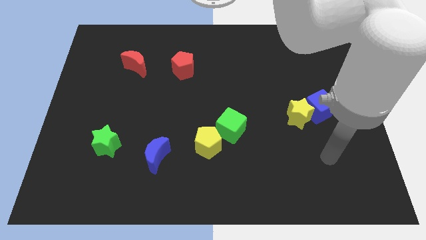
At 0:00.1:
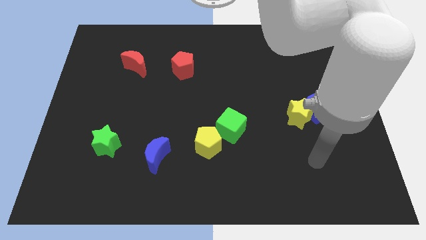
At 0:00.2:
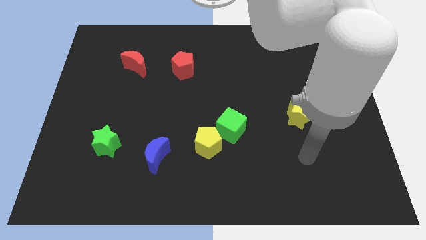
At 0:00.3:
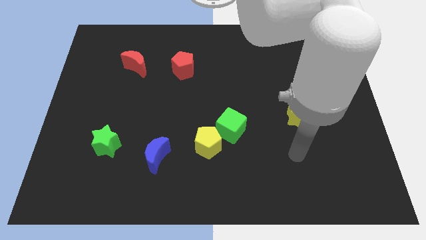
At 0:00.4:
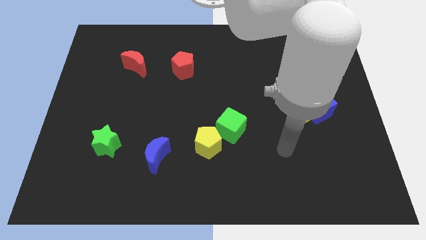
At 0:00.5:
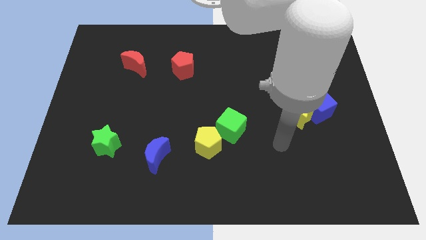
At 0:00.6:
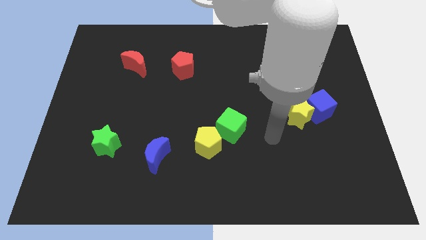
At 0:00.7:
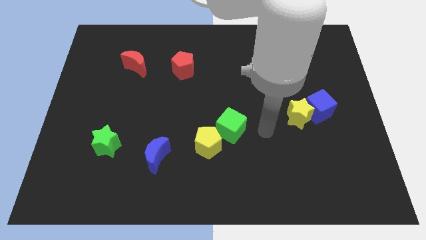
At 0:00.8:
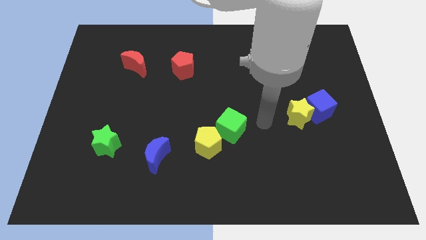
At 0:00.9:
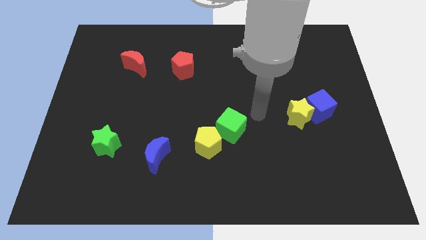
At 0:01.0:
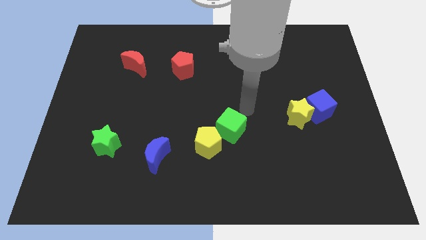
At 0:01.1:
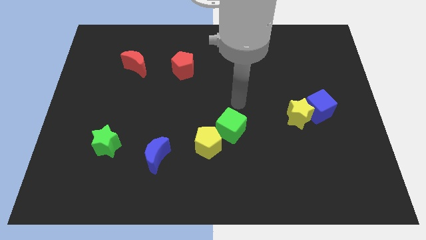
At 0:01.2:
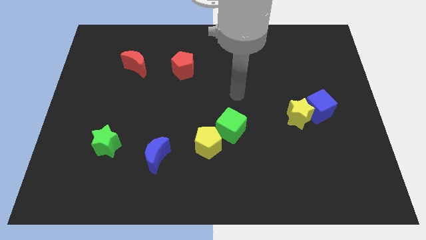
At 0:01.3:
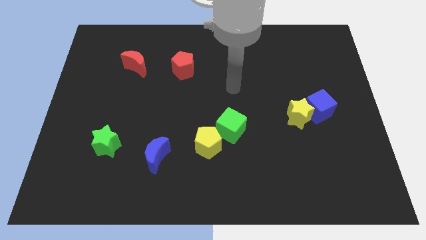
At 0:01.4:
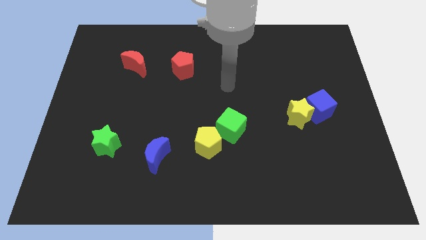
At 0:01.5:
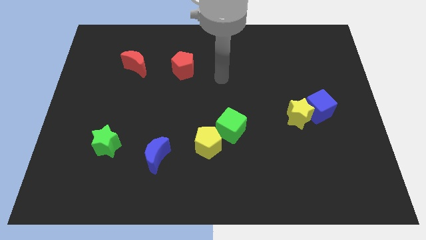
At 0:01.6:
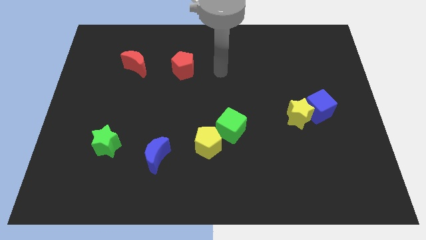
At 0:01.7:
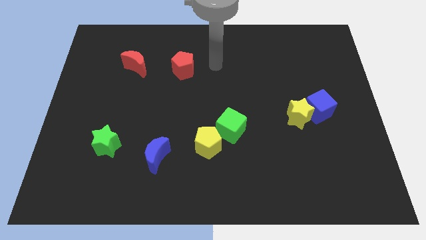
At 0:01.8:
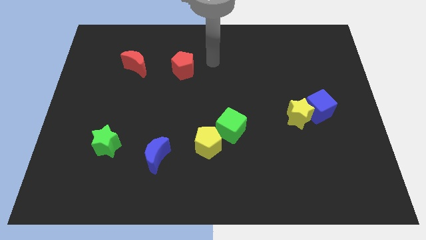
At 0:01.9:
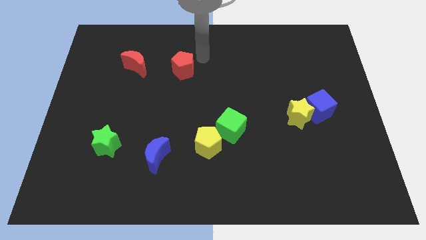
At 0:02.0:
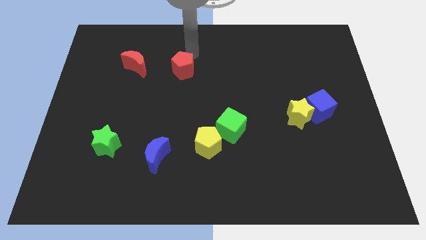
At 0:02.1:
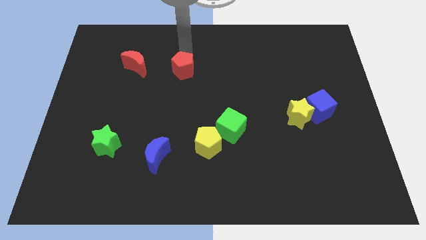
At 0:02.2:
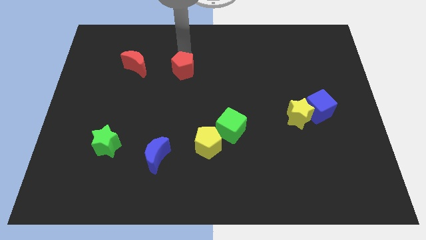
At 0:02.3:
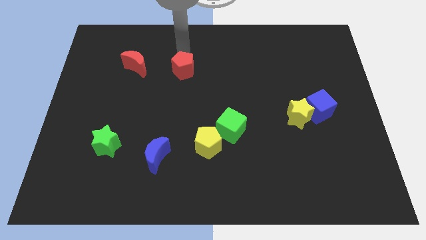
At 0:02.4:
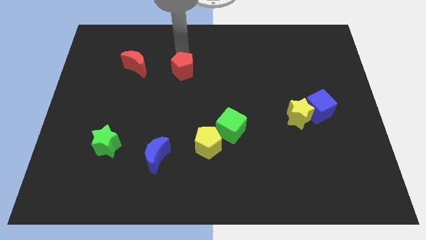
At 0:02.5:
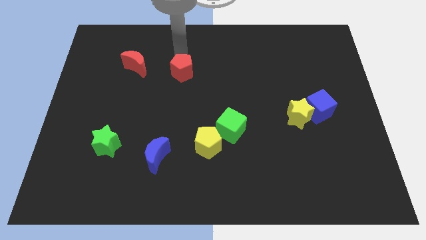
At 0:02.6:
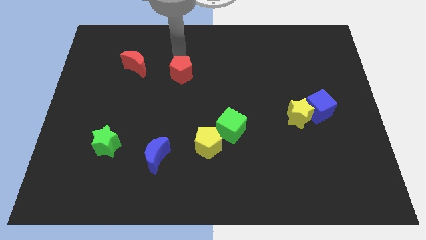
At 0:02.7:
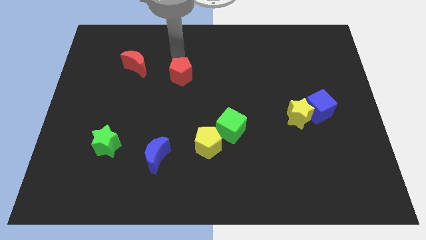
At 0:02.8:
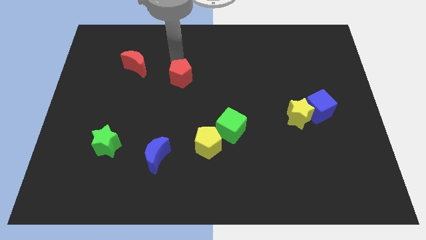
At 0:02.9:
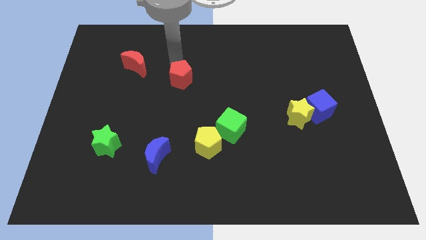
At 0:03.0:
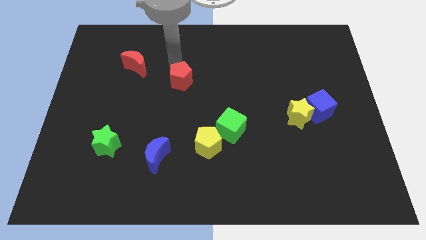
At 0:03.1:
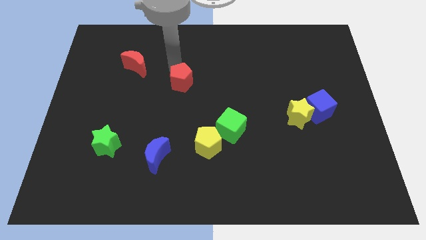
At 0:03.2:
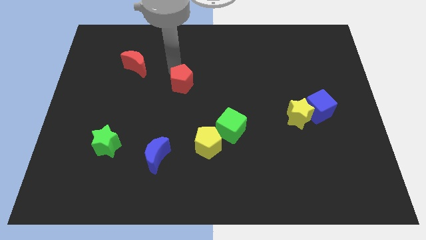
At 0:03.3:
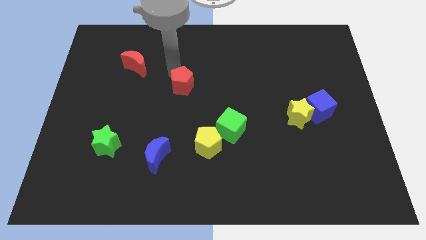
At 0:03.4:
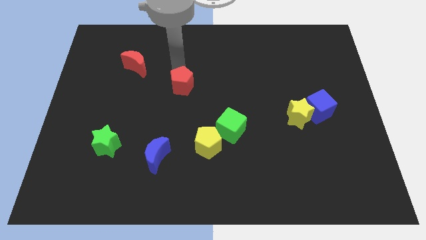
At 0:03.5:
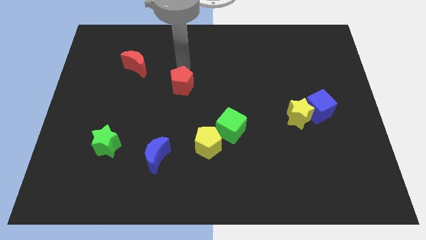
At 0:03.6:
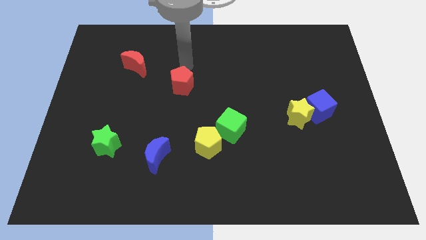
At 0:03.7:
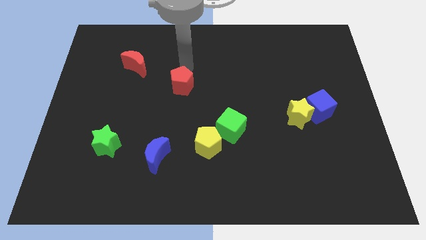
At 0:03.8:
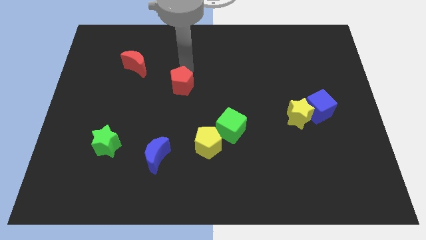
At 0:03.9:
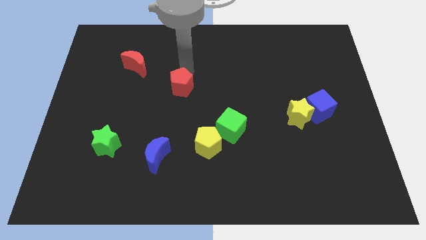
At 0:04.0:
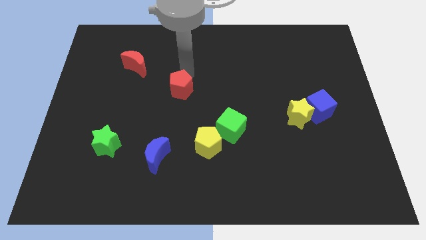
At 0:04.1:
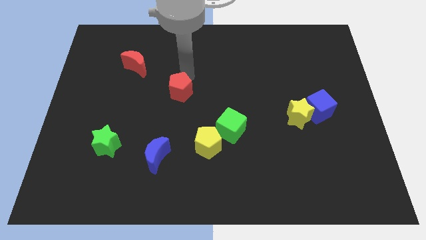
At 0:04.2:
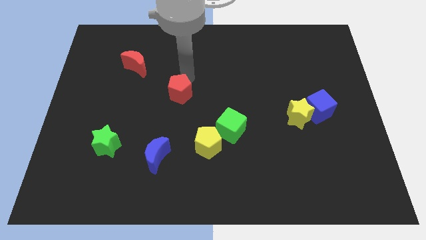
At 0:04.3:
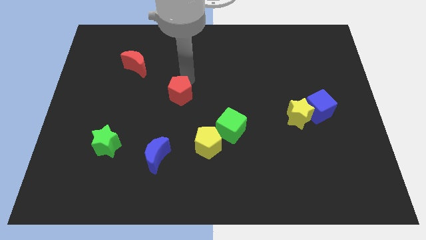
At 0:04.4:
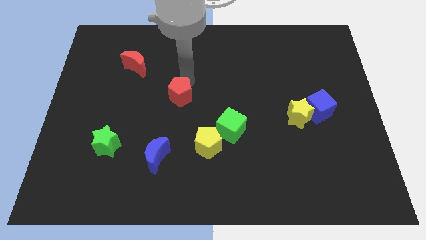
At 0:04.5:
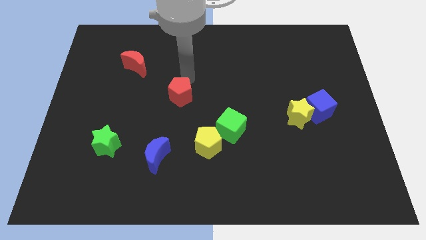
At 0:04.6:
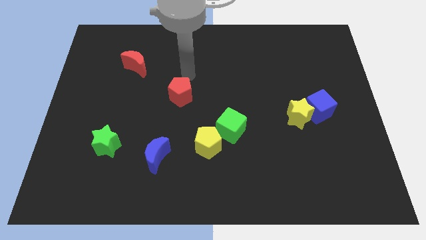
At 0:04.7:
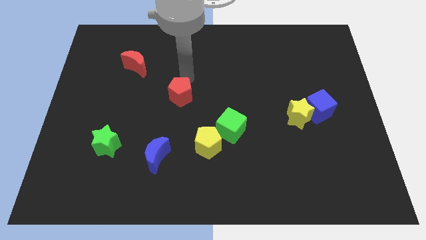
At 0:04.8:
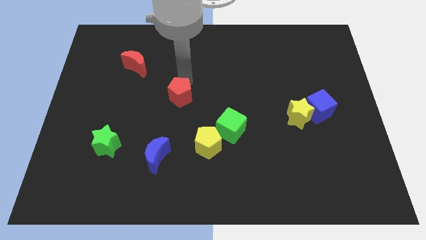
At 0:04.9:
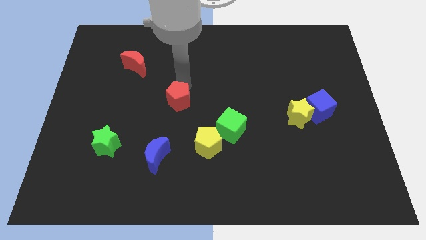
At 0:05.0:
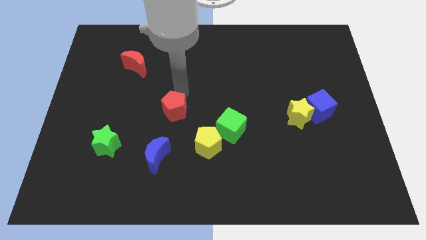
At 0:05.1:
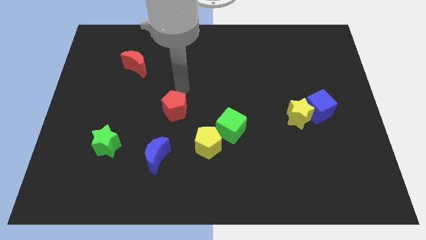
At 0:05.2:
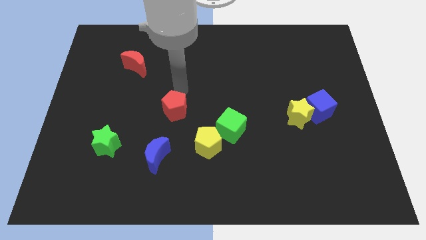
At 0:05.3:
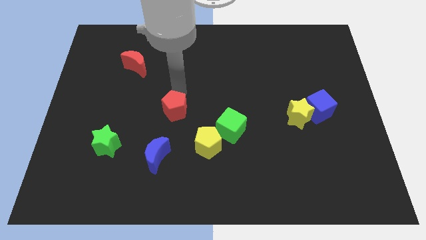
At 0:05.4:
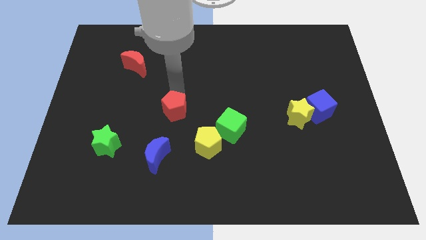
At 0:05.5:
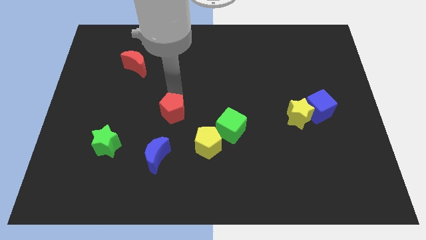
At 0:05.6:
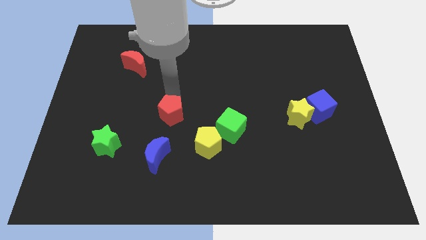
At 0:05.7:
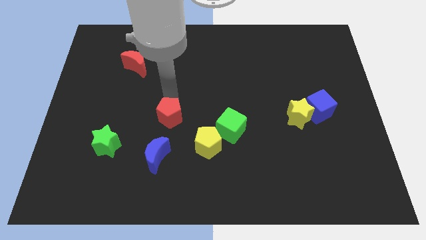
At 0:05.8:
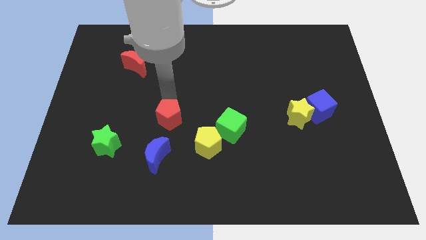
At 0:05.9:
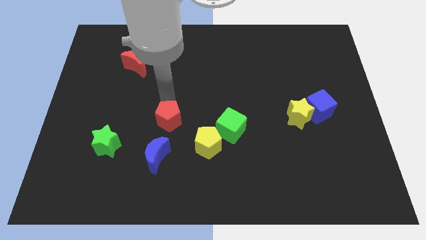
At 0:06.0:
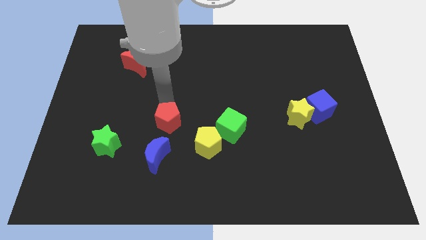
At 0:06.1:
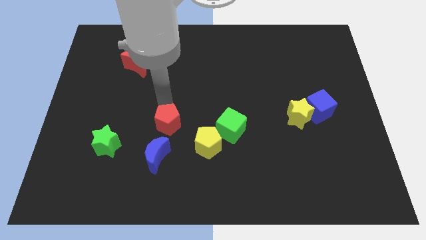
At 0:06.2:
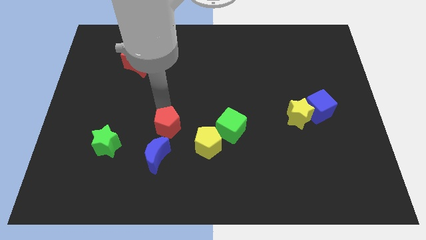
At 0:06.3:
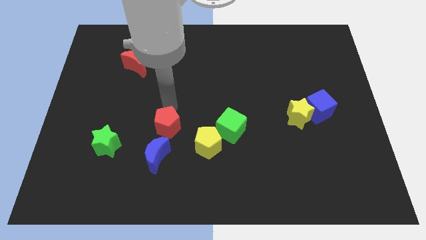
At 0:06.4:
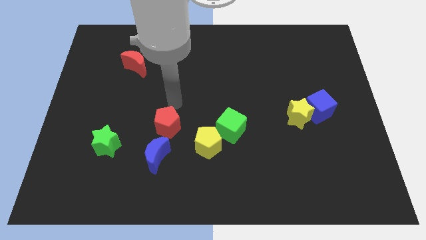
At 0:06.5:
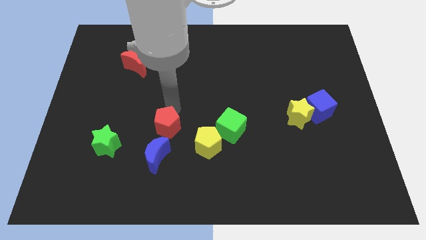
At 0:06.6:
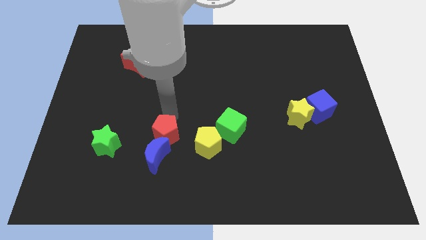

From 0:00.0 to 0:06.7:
slide the red pentagon towards the blue moon

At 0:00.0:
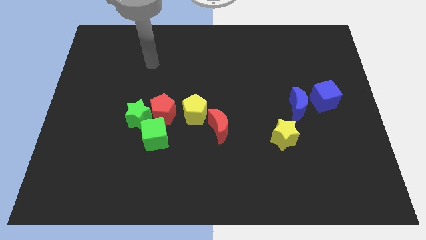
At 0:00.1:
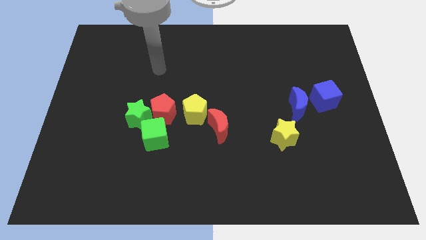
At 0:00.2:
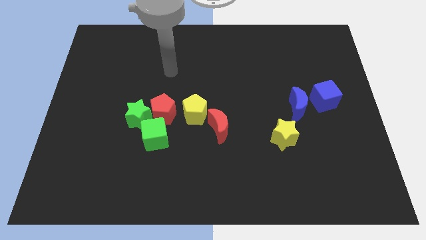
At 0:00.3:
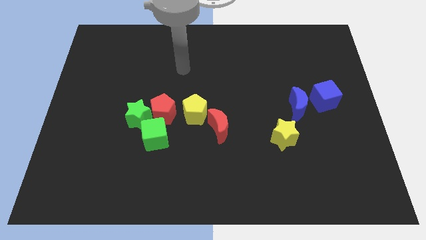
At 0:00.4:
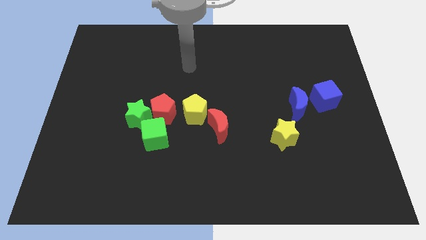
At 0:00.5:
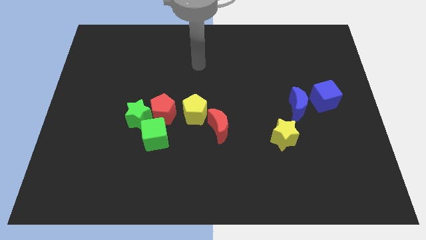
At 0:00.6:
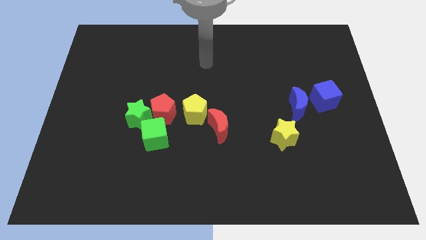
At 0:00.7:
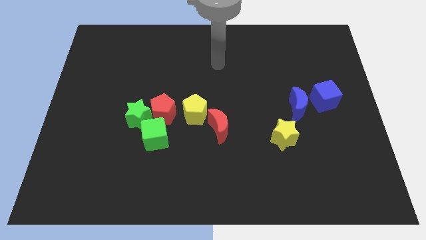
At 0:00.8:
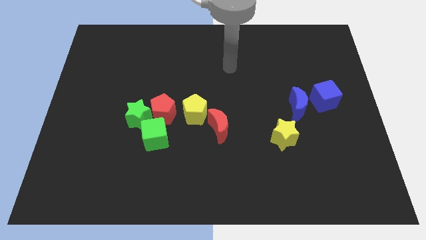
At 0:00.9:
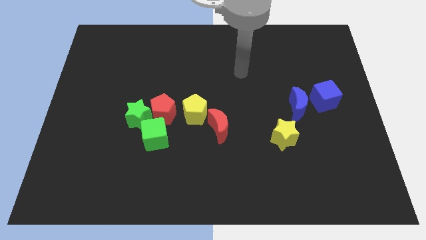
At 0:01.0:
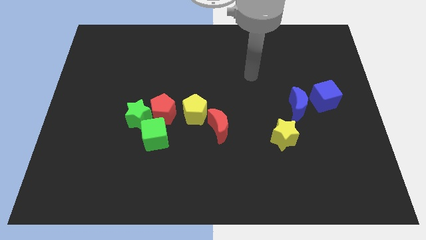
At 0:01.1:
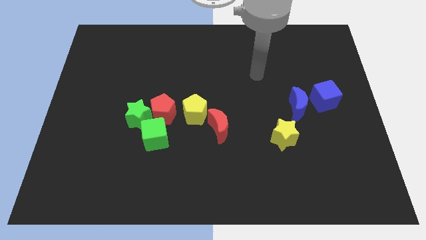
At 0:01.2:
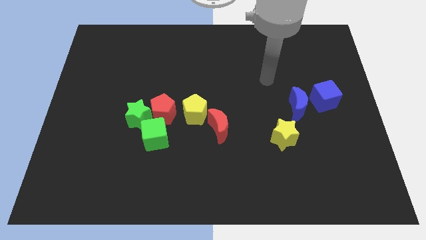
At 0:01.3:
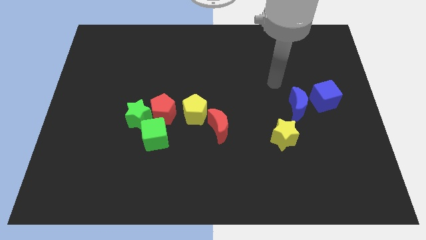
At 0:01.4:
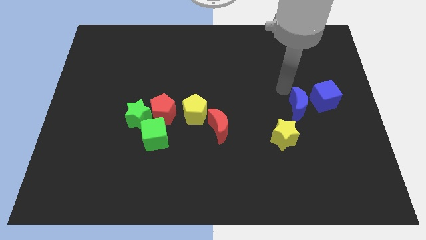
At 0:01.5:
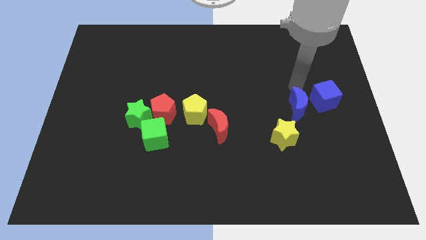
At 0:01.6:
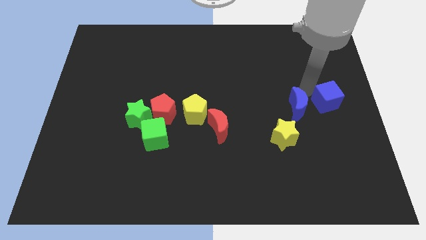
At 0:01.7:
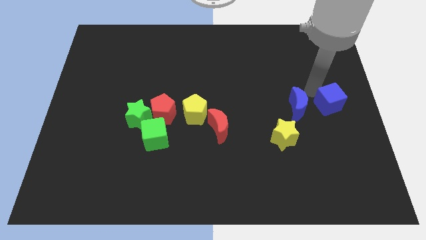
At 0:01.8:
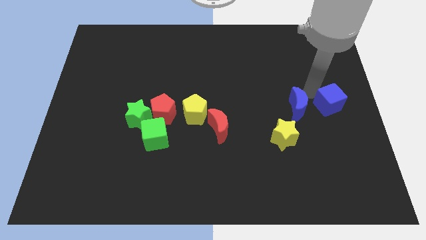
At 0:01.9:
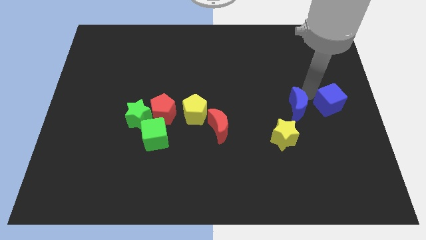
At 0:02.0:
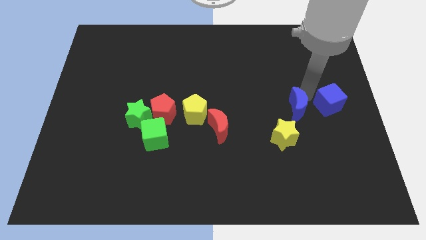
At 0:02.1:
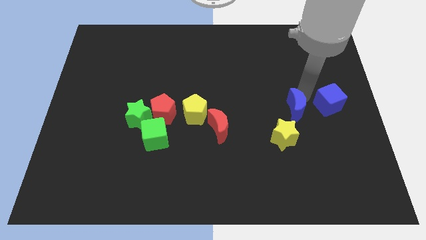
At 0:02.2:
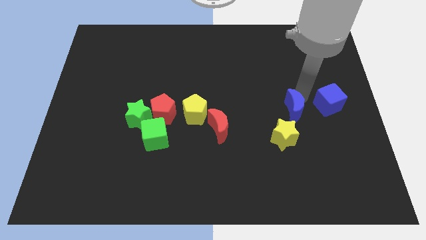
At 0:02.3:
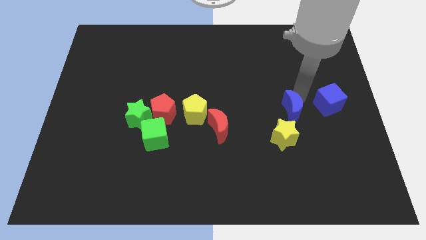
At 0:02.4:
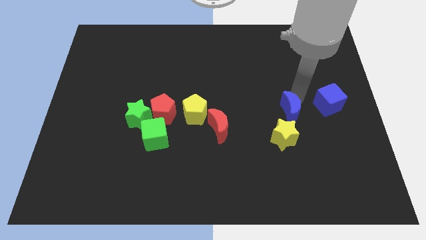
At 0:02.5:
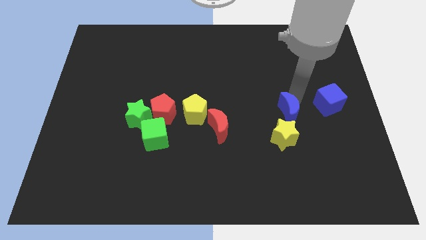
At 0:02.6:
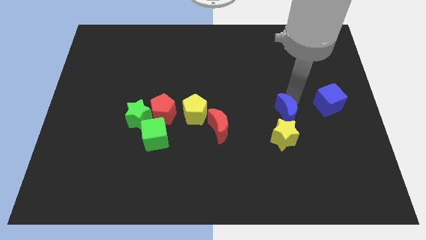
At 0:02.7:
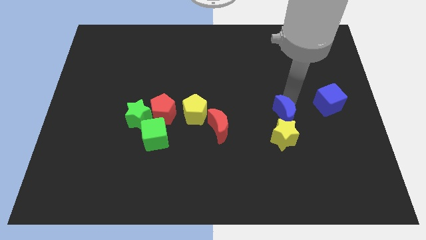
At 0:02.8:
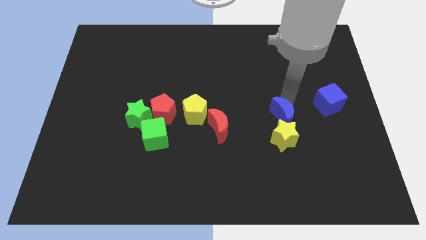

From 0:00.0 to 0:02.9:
push the blue moon to the yellow star
